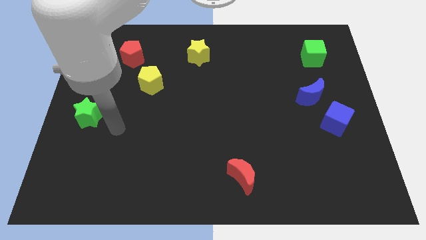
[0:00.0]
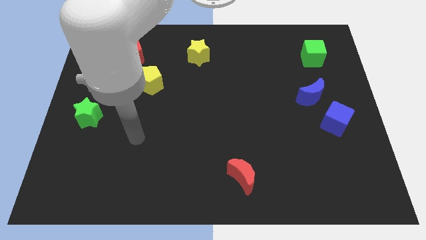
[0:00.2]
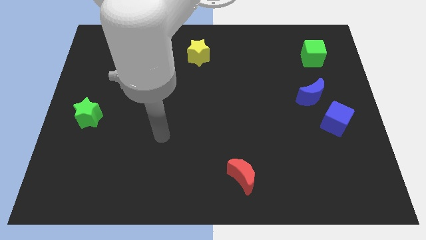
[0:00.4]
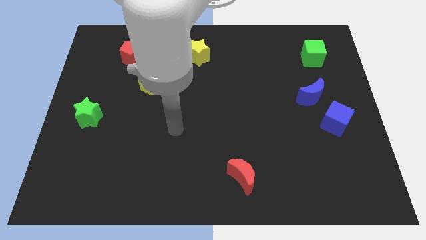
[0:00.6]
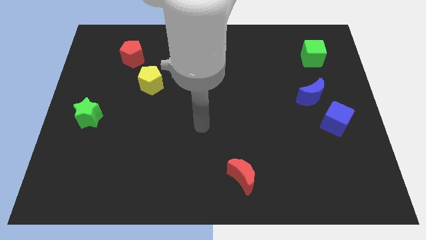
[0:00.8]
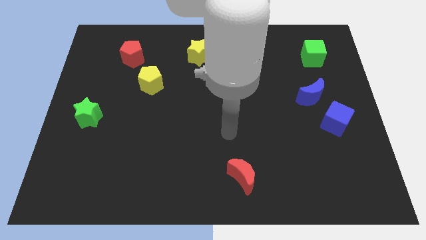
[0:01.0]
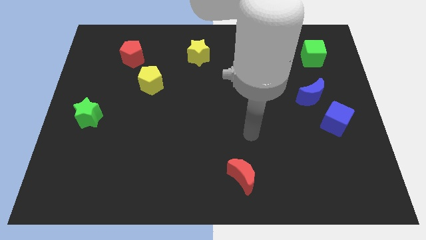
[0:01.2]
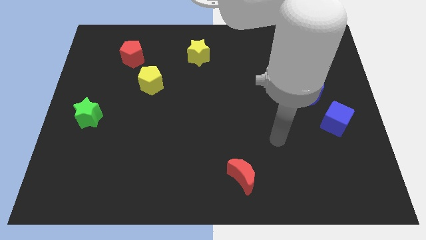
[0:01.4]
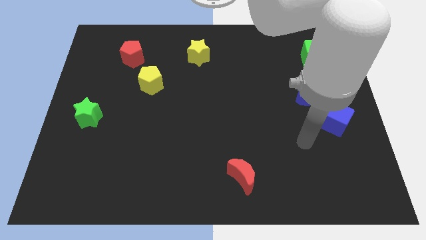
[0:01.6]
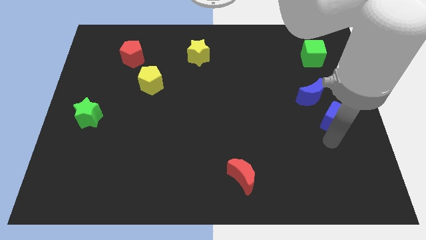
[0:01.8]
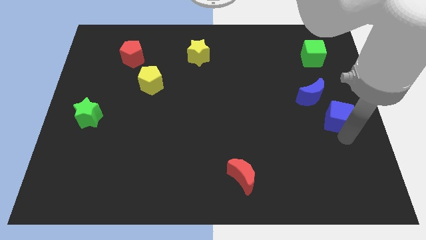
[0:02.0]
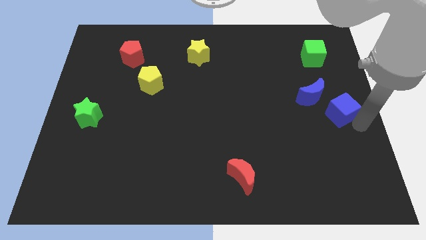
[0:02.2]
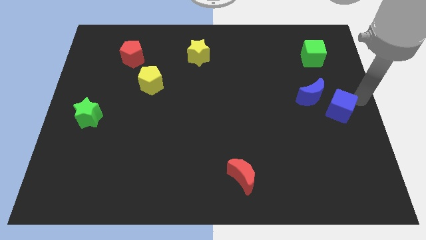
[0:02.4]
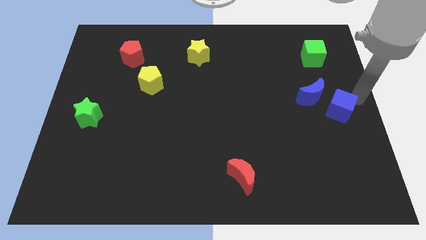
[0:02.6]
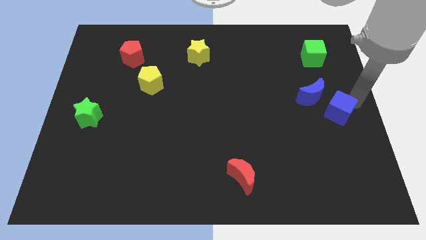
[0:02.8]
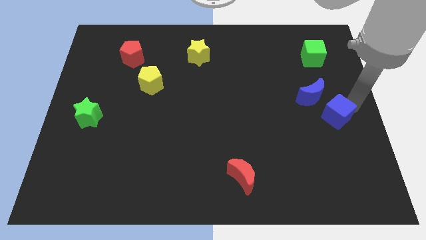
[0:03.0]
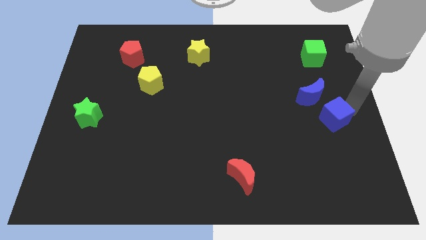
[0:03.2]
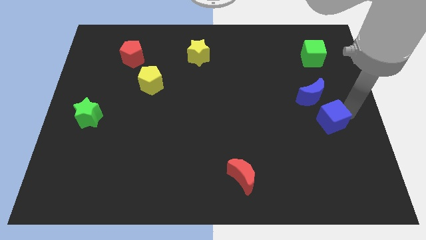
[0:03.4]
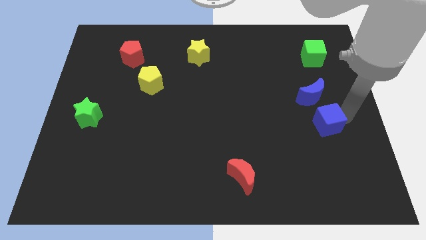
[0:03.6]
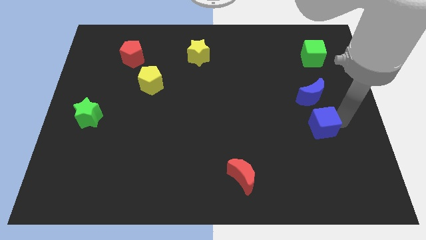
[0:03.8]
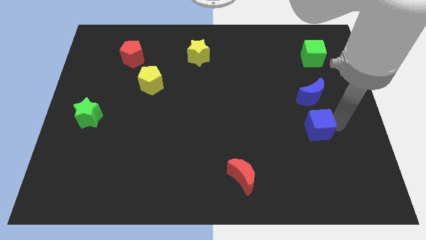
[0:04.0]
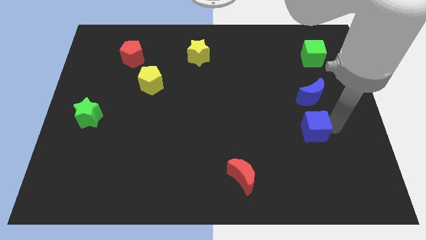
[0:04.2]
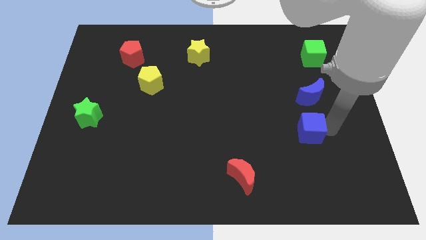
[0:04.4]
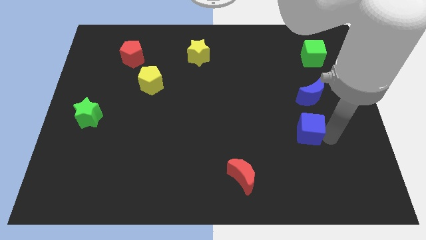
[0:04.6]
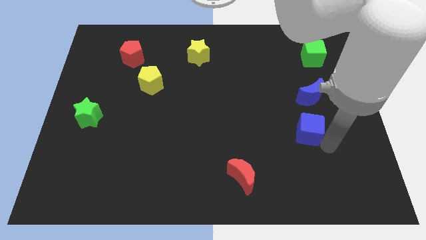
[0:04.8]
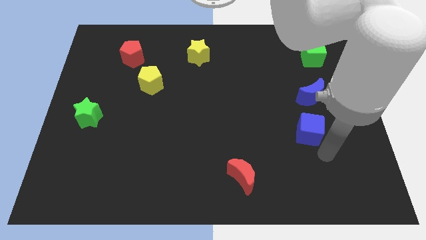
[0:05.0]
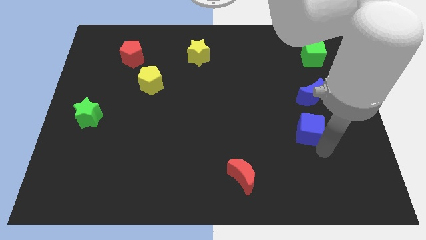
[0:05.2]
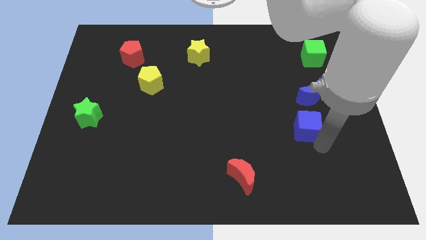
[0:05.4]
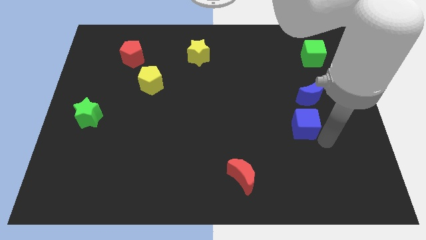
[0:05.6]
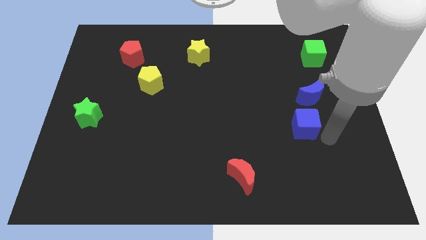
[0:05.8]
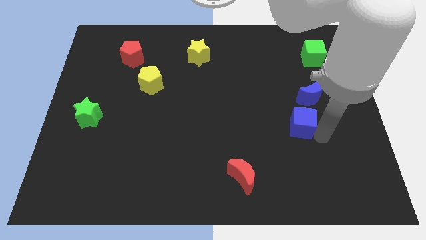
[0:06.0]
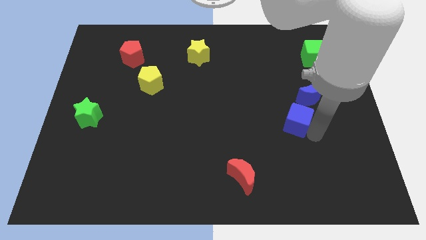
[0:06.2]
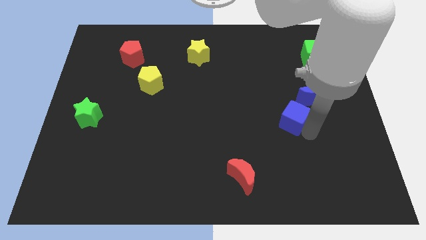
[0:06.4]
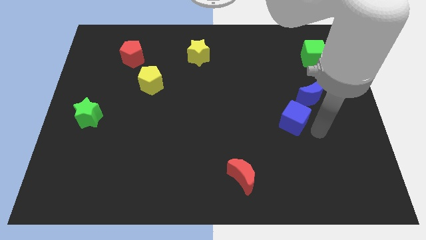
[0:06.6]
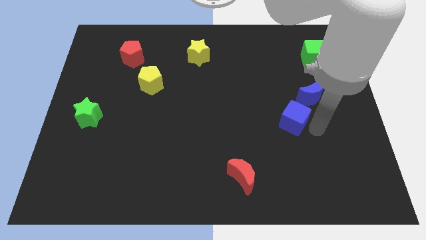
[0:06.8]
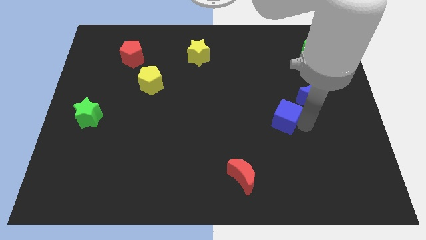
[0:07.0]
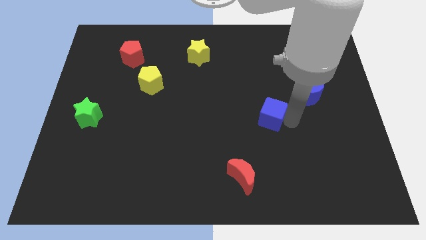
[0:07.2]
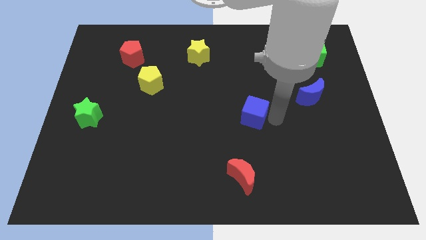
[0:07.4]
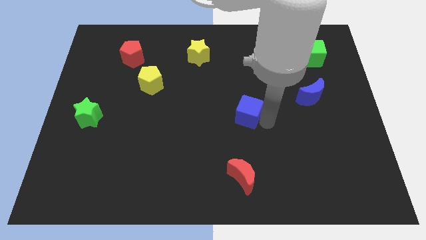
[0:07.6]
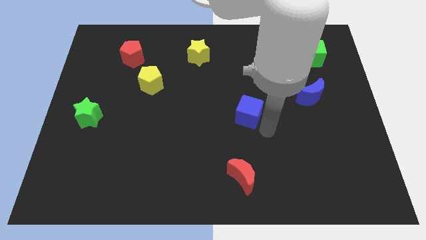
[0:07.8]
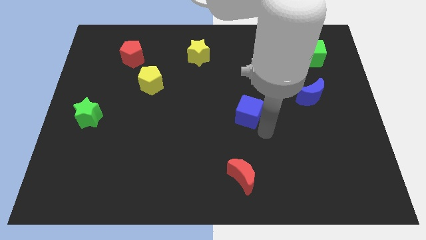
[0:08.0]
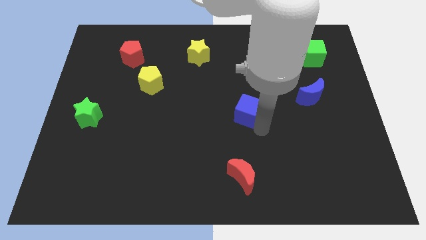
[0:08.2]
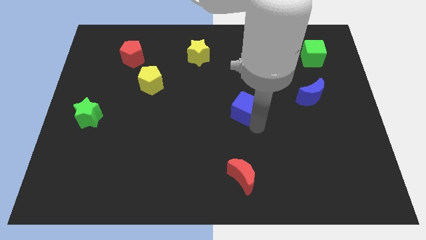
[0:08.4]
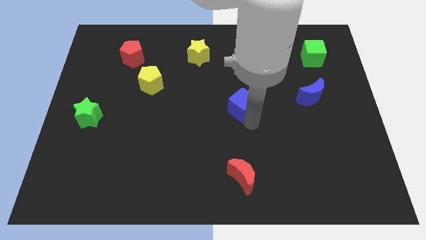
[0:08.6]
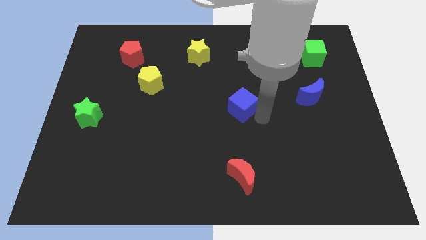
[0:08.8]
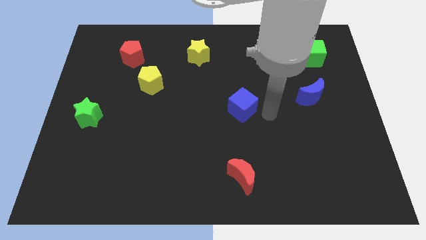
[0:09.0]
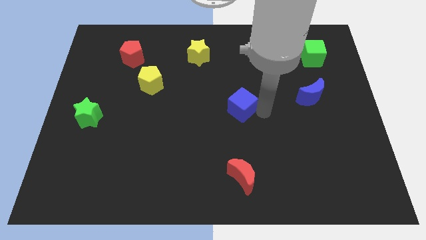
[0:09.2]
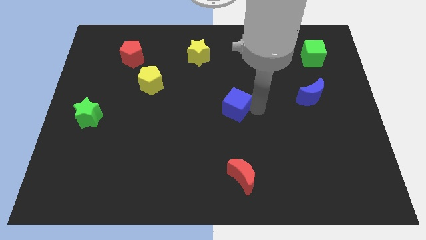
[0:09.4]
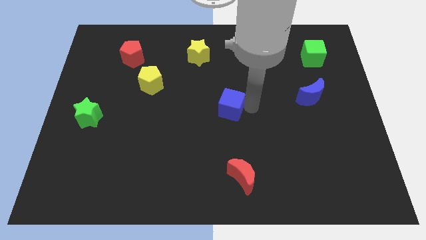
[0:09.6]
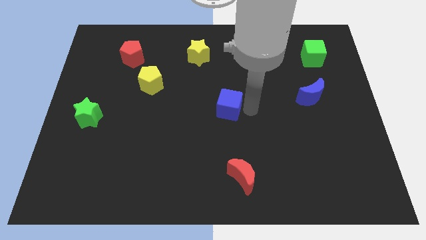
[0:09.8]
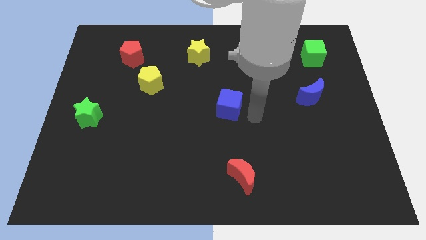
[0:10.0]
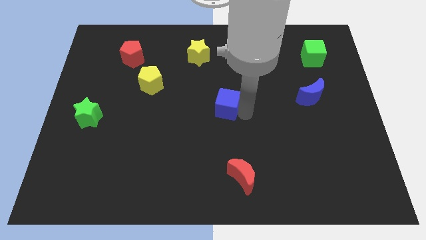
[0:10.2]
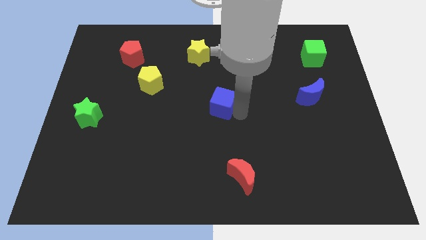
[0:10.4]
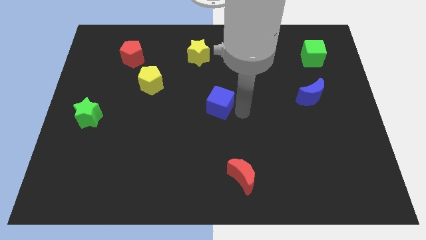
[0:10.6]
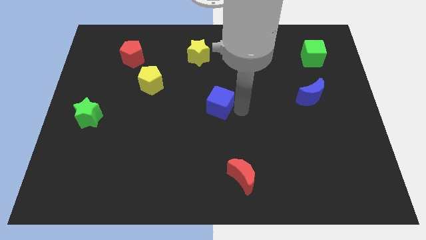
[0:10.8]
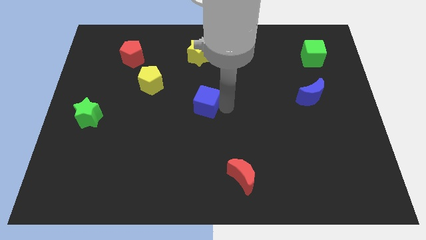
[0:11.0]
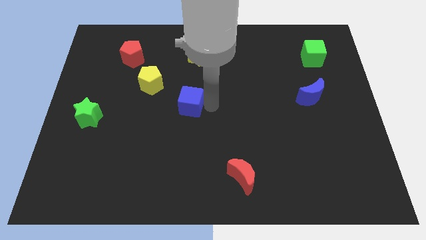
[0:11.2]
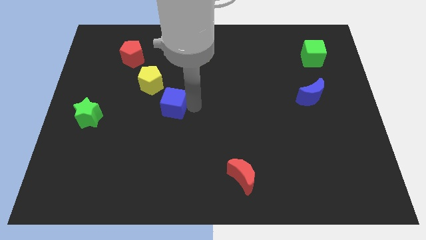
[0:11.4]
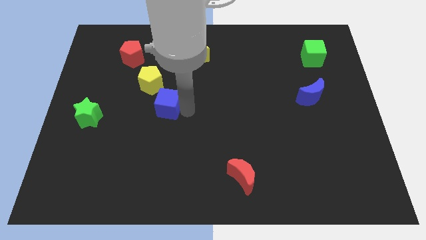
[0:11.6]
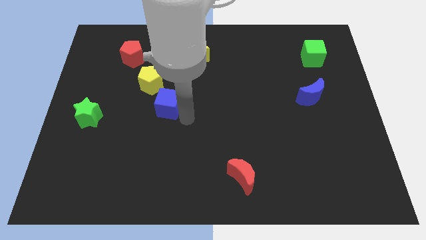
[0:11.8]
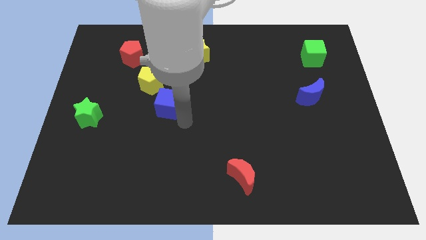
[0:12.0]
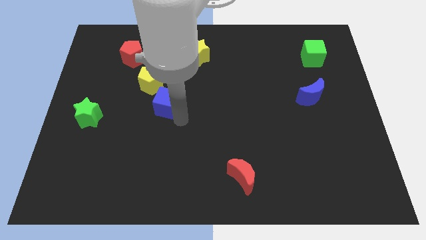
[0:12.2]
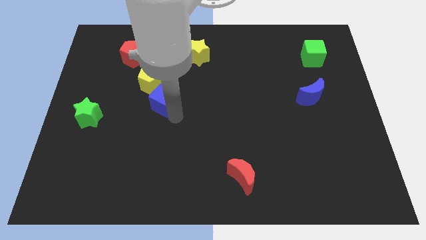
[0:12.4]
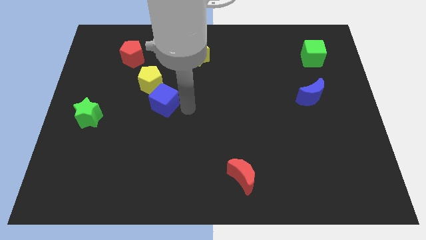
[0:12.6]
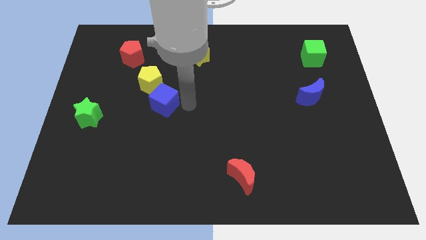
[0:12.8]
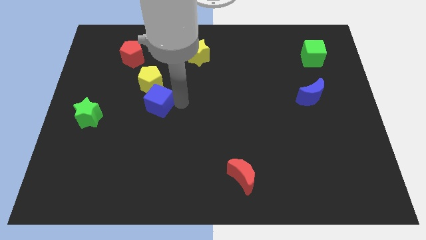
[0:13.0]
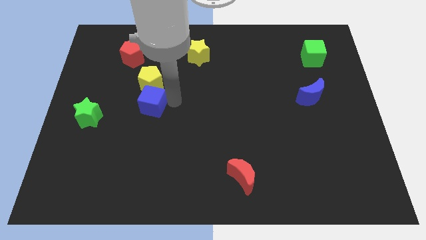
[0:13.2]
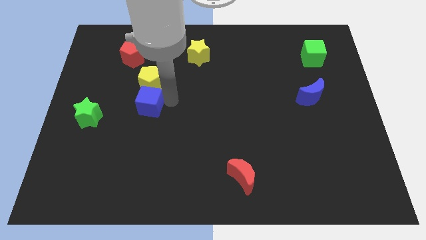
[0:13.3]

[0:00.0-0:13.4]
put the blue cube to the bottom left of the yellow pentagon
